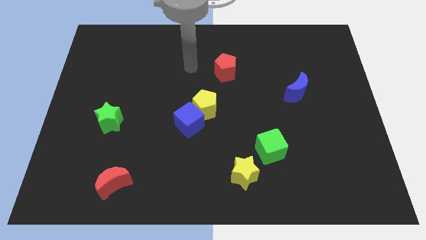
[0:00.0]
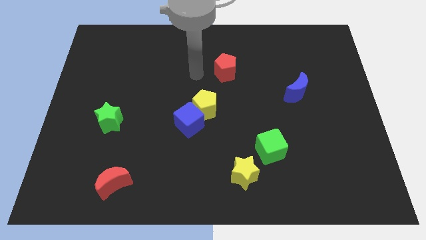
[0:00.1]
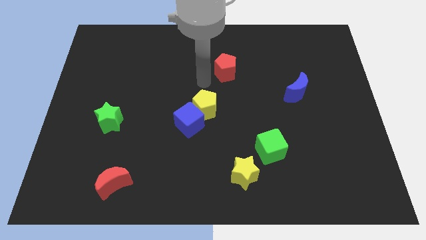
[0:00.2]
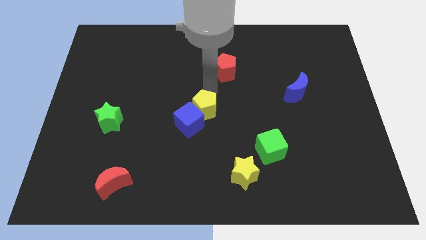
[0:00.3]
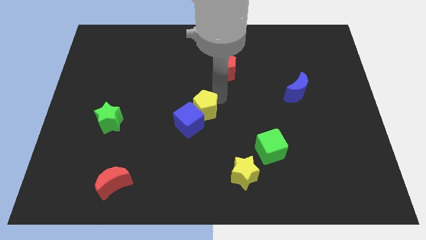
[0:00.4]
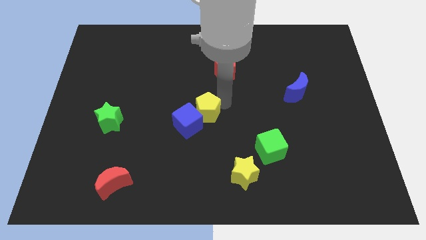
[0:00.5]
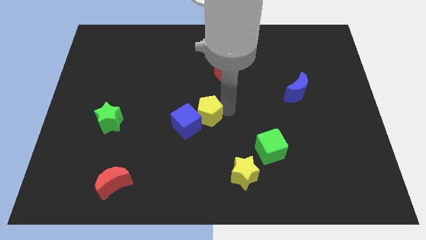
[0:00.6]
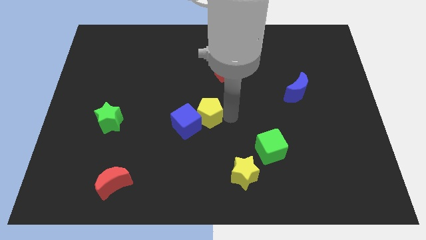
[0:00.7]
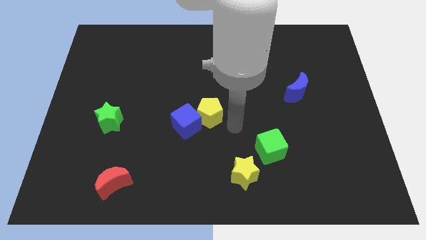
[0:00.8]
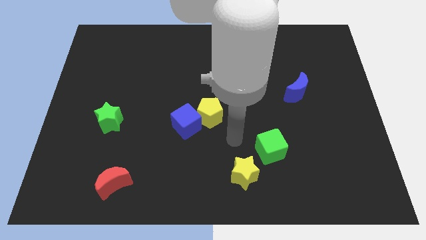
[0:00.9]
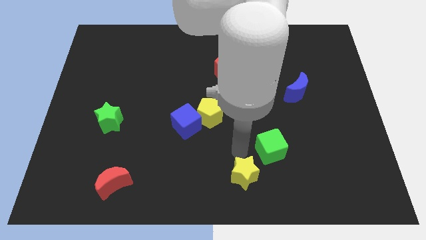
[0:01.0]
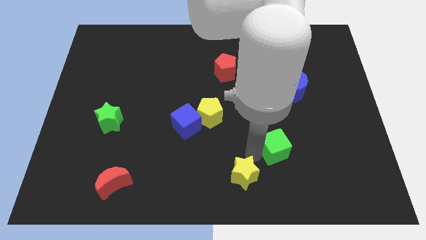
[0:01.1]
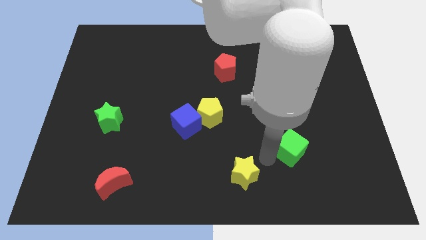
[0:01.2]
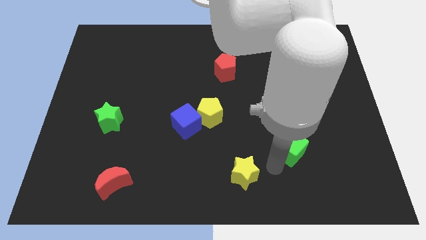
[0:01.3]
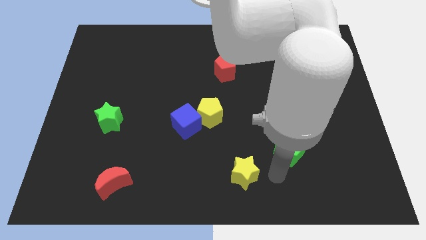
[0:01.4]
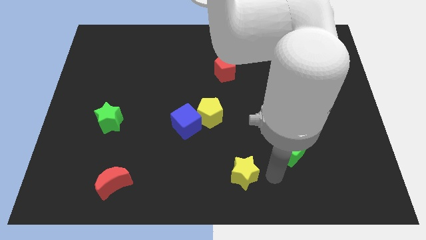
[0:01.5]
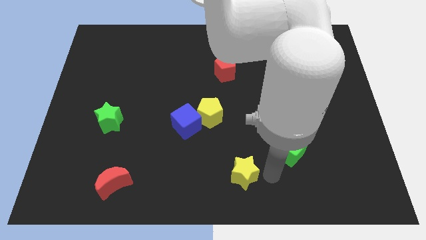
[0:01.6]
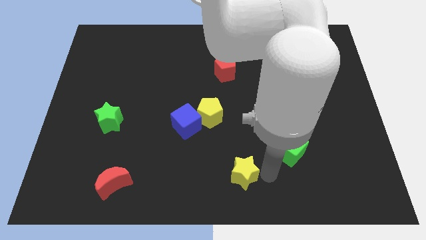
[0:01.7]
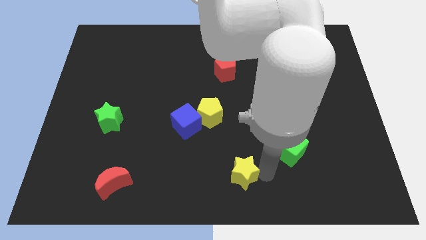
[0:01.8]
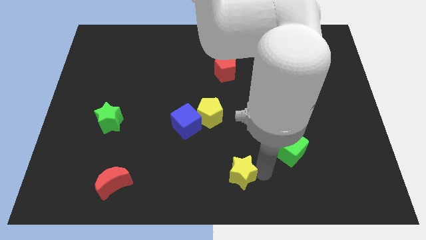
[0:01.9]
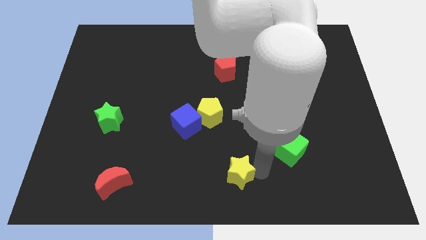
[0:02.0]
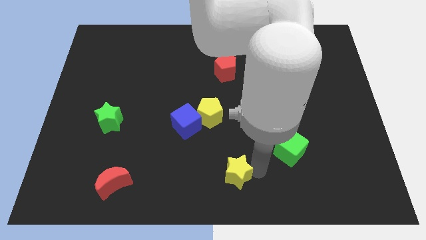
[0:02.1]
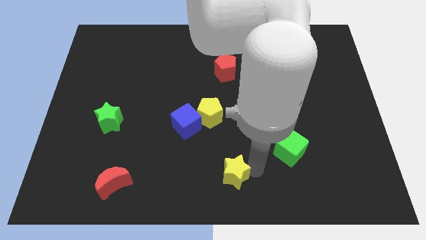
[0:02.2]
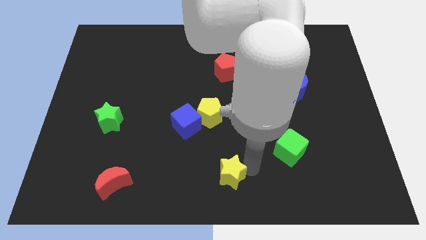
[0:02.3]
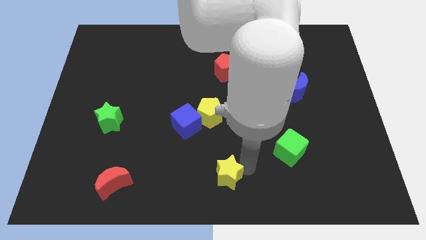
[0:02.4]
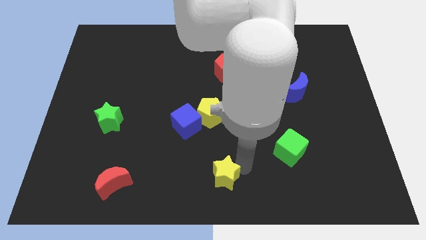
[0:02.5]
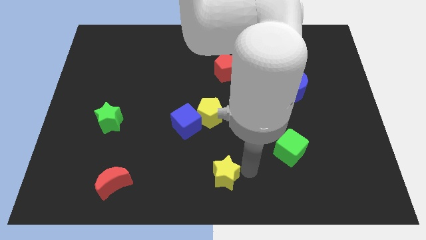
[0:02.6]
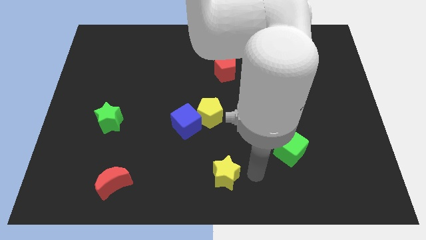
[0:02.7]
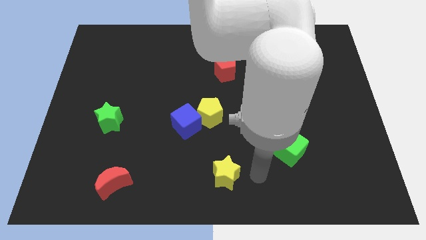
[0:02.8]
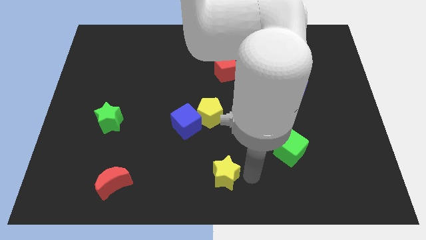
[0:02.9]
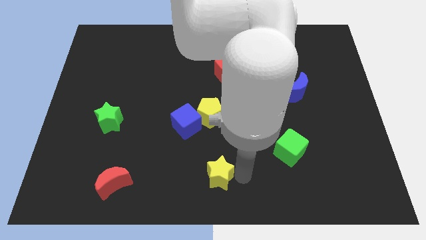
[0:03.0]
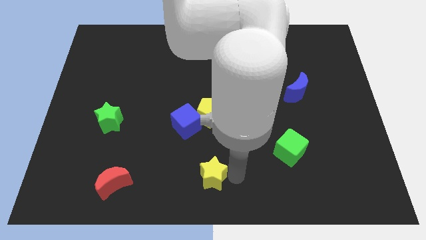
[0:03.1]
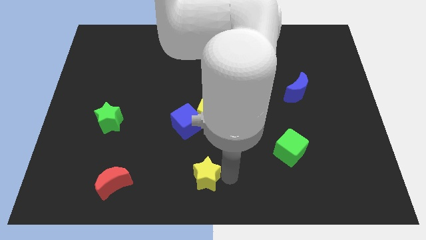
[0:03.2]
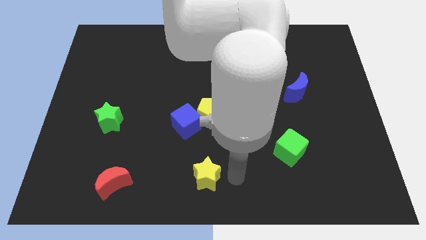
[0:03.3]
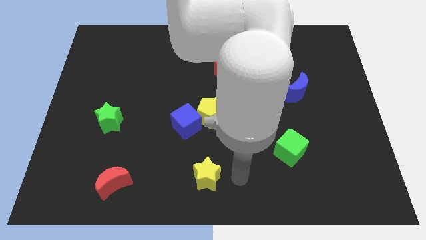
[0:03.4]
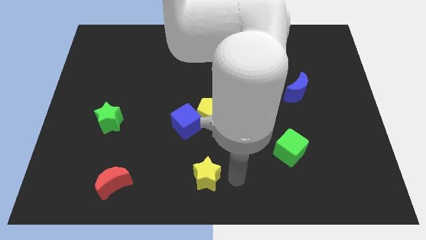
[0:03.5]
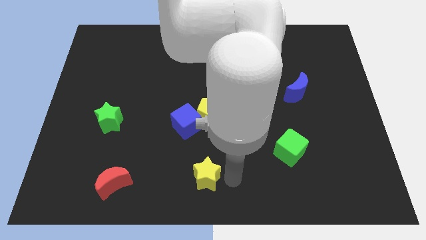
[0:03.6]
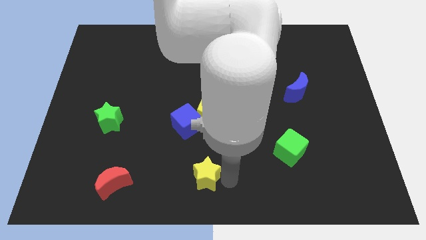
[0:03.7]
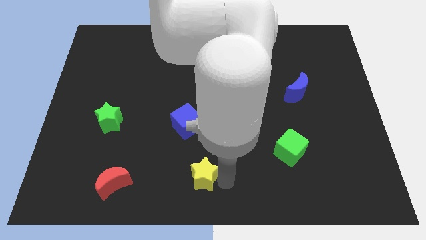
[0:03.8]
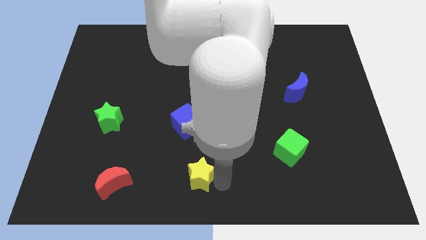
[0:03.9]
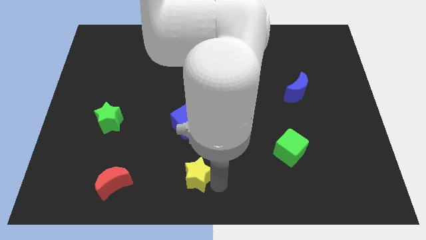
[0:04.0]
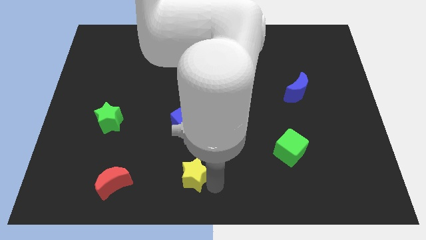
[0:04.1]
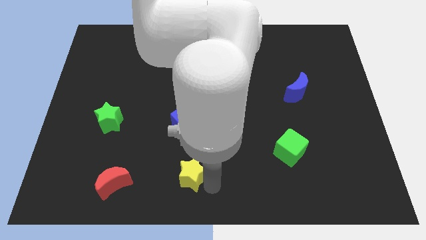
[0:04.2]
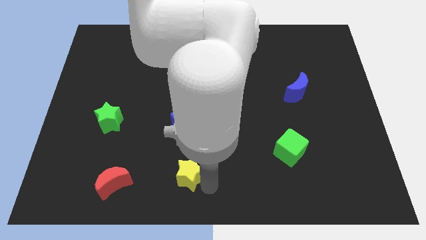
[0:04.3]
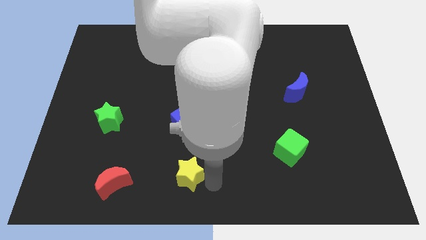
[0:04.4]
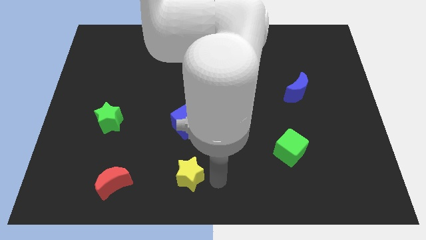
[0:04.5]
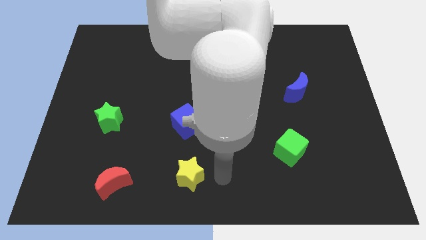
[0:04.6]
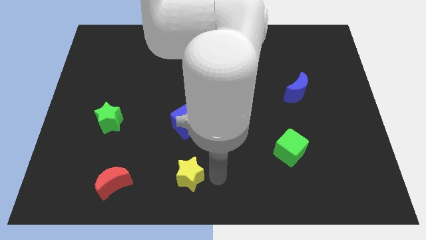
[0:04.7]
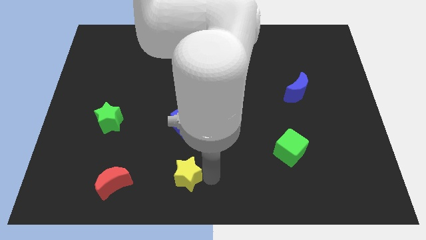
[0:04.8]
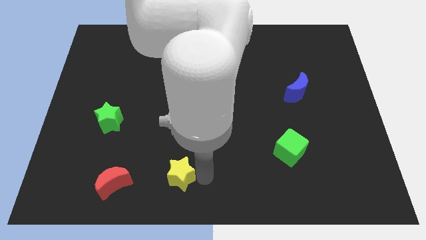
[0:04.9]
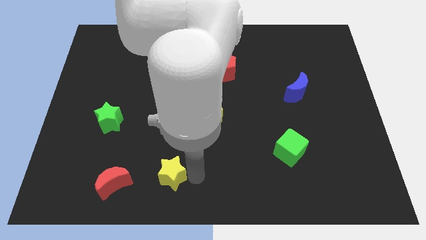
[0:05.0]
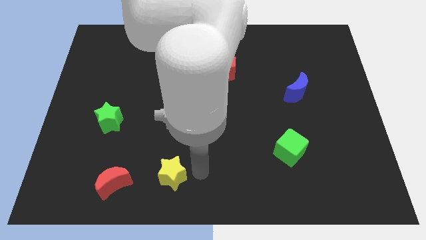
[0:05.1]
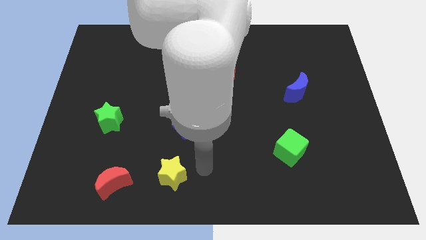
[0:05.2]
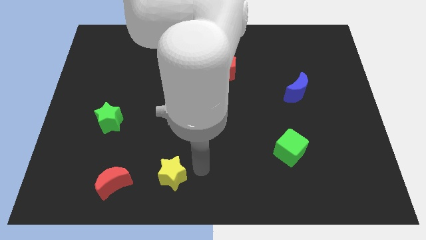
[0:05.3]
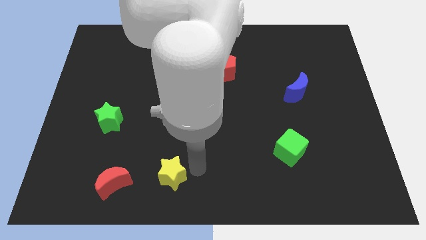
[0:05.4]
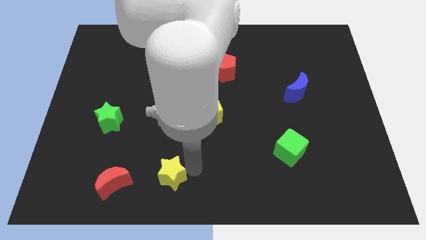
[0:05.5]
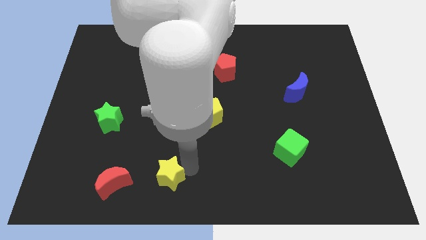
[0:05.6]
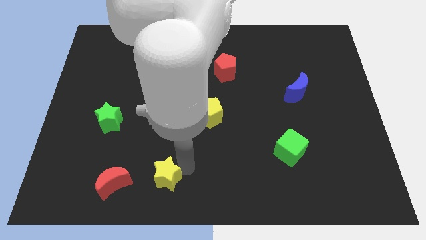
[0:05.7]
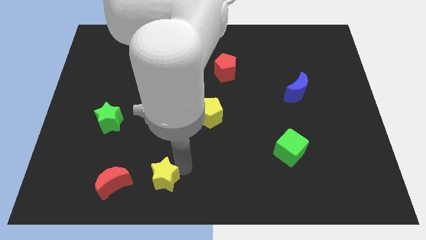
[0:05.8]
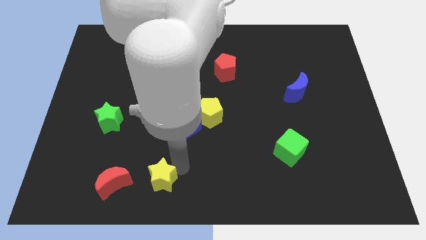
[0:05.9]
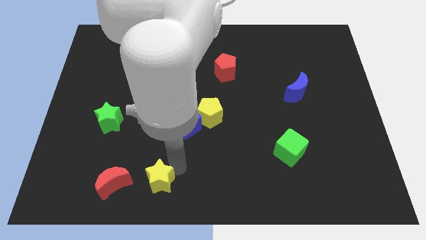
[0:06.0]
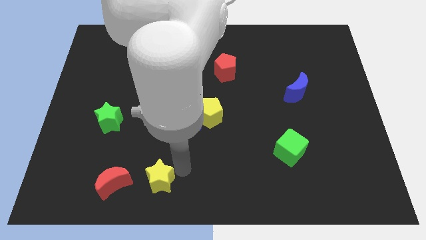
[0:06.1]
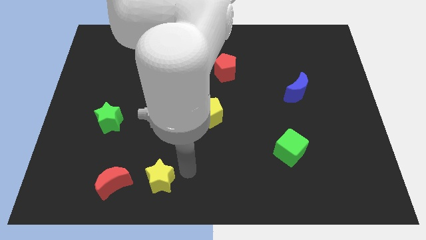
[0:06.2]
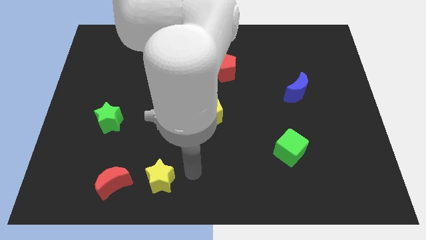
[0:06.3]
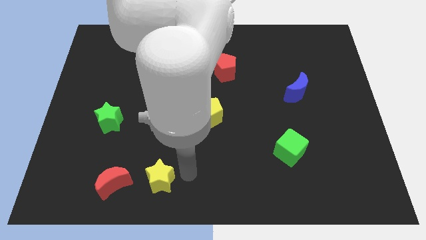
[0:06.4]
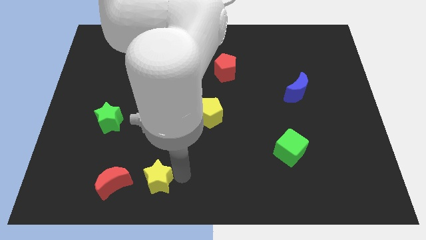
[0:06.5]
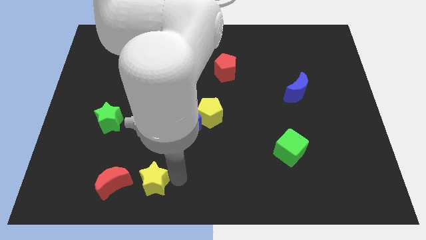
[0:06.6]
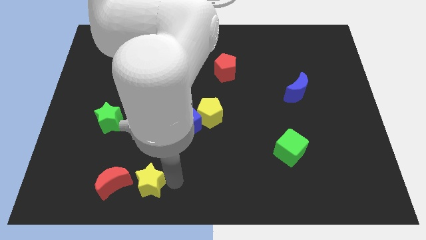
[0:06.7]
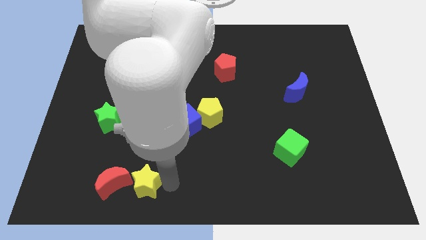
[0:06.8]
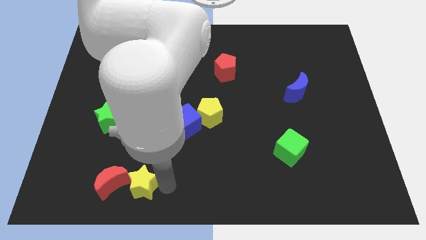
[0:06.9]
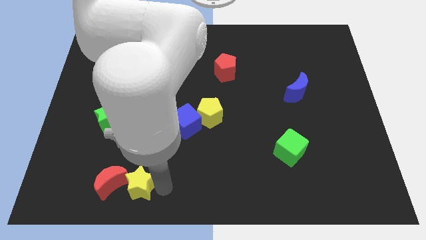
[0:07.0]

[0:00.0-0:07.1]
put the yellow star next to the red moon
